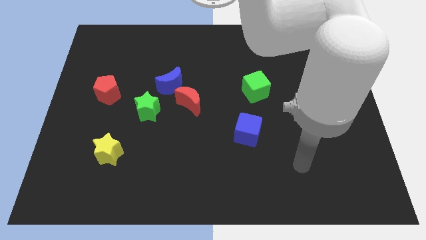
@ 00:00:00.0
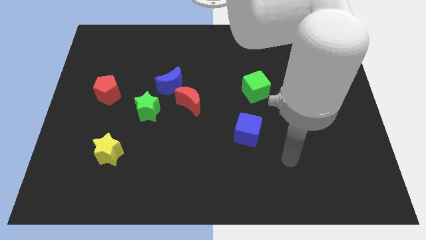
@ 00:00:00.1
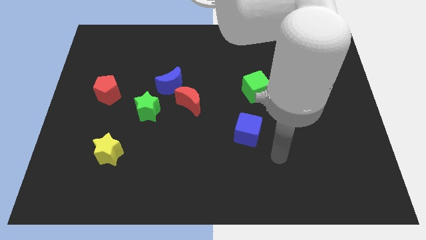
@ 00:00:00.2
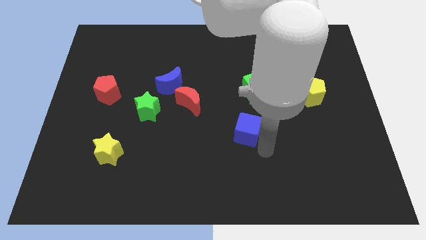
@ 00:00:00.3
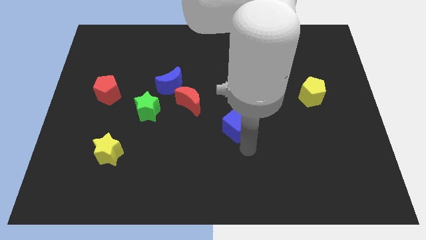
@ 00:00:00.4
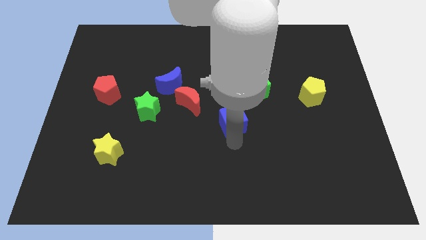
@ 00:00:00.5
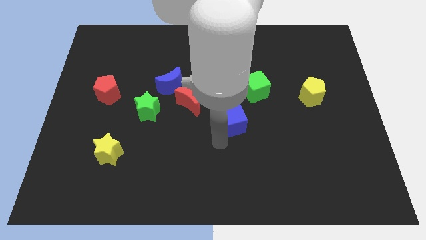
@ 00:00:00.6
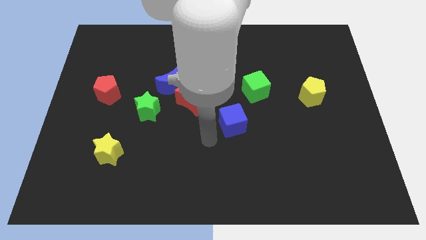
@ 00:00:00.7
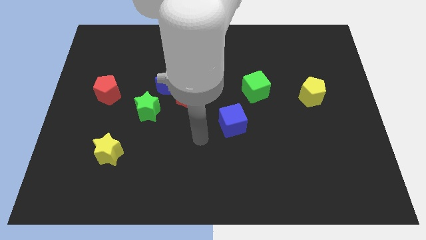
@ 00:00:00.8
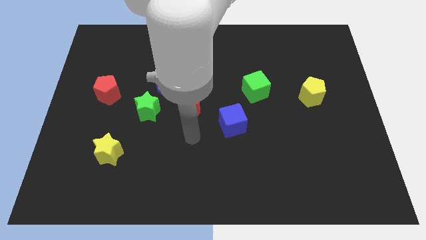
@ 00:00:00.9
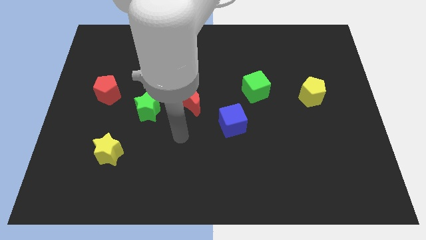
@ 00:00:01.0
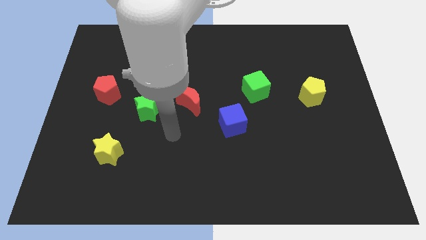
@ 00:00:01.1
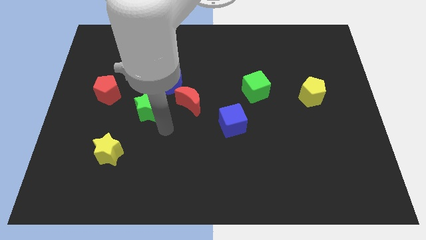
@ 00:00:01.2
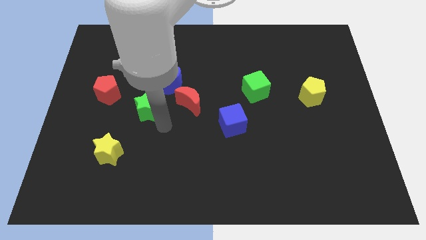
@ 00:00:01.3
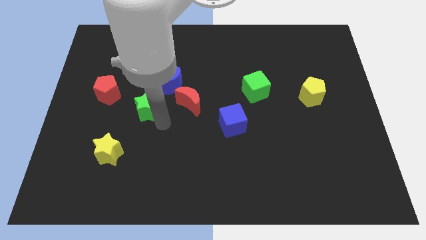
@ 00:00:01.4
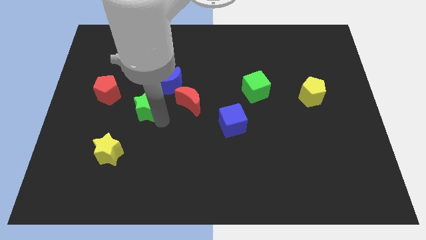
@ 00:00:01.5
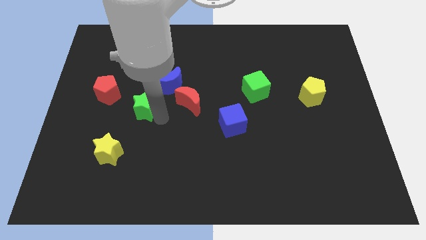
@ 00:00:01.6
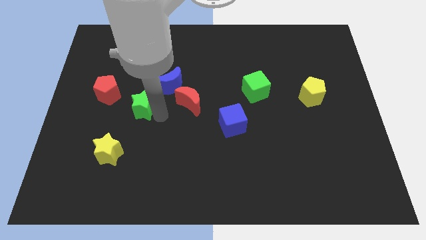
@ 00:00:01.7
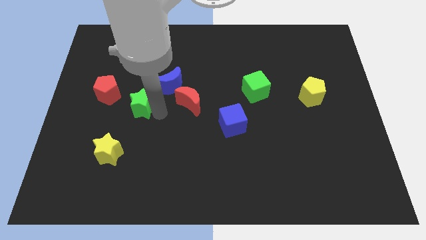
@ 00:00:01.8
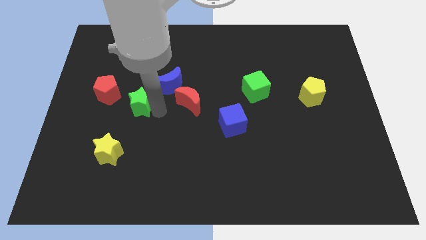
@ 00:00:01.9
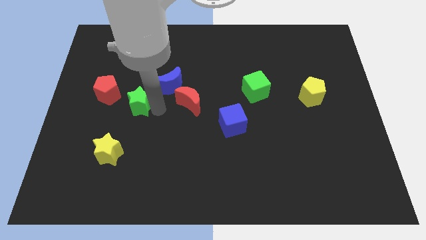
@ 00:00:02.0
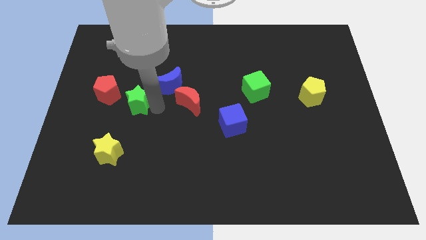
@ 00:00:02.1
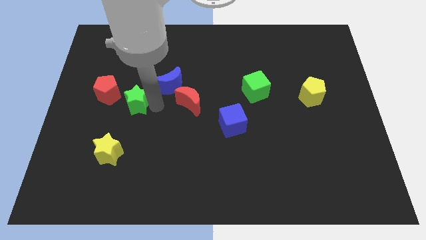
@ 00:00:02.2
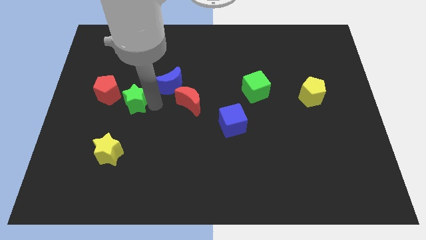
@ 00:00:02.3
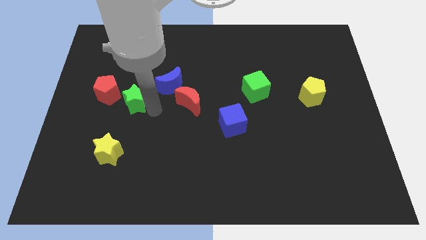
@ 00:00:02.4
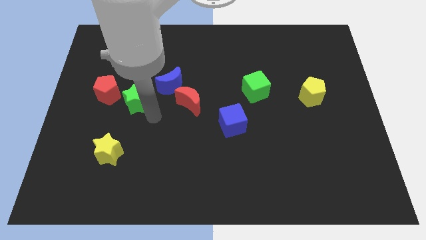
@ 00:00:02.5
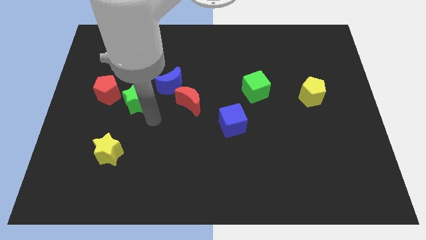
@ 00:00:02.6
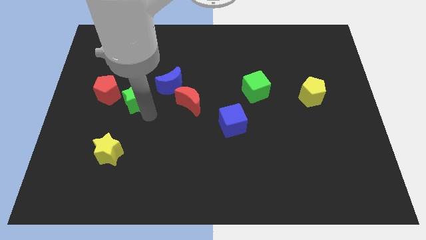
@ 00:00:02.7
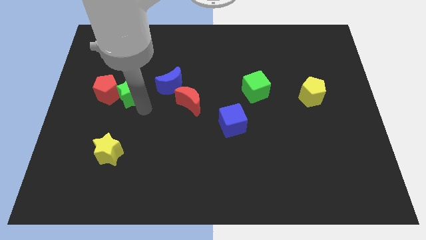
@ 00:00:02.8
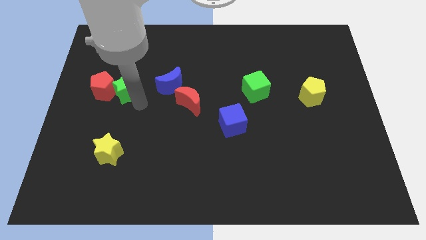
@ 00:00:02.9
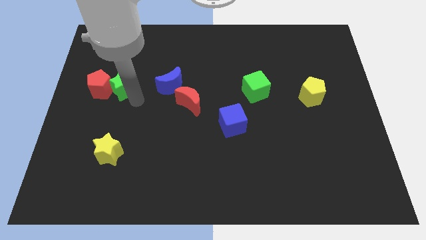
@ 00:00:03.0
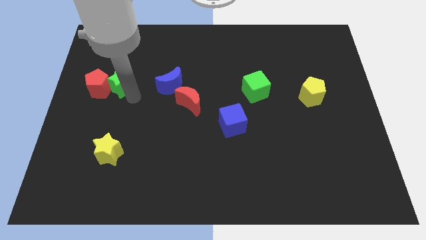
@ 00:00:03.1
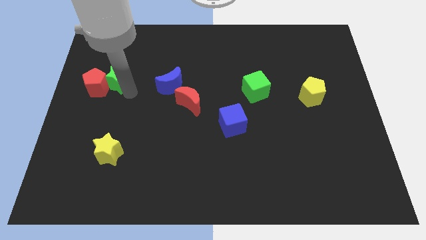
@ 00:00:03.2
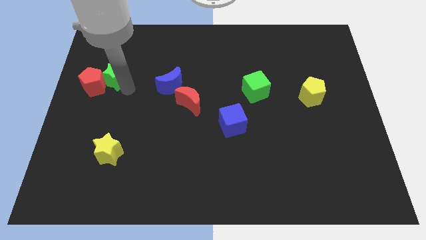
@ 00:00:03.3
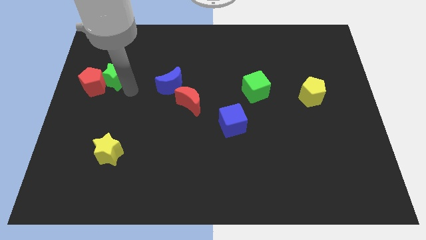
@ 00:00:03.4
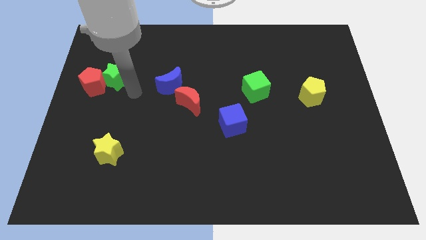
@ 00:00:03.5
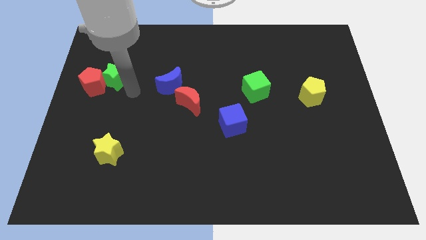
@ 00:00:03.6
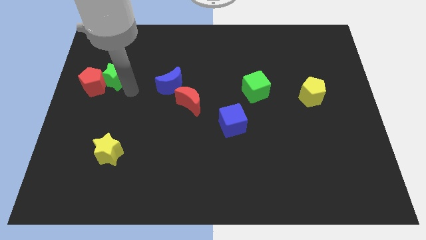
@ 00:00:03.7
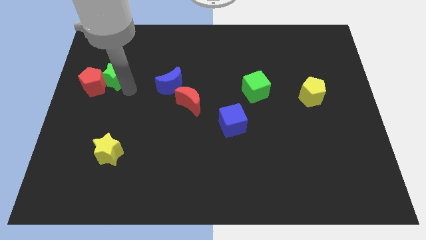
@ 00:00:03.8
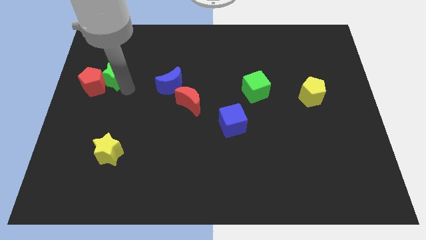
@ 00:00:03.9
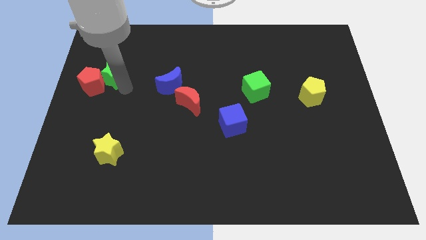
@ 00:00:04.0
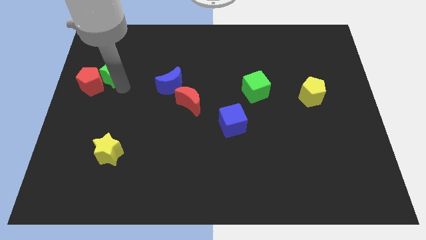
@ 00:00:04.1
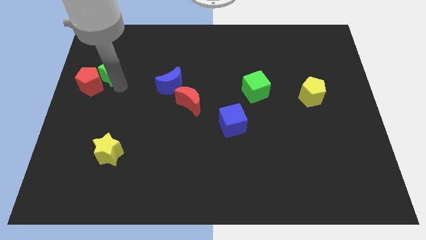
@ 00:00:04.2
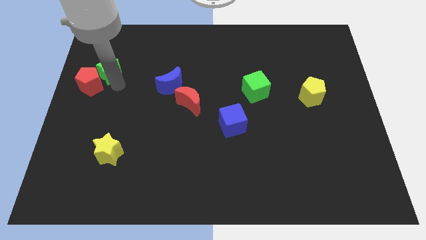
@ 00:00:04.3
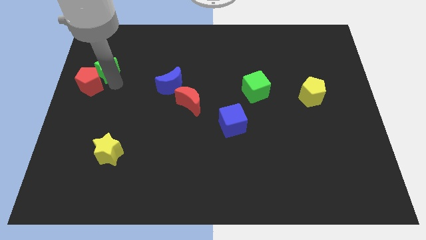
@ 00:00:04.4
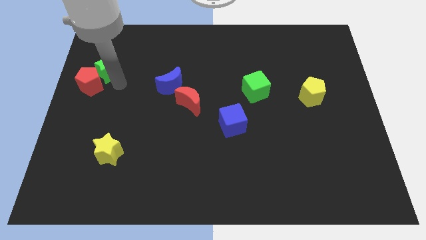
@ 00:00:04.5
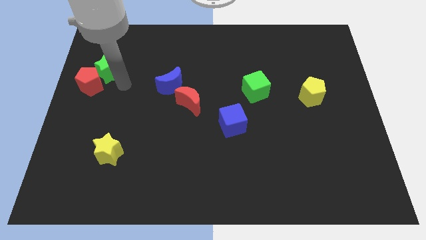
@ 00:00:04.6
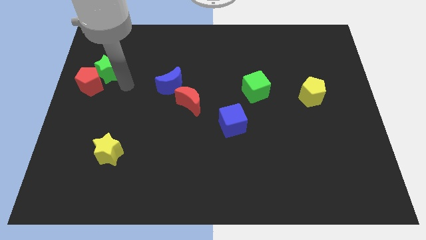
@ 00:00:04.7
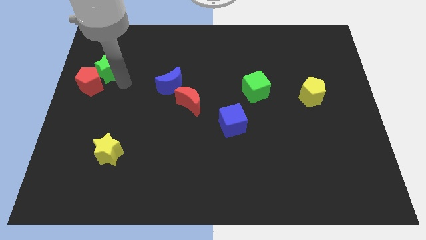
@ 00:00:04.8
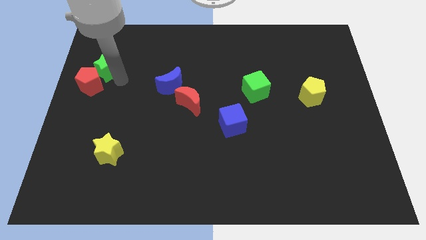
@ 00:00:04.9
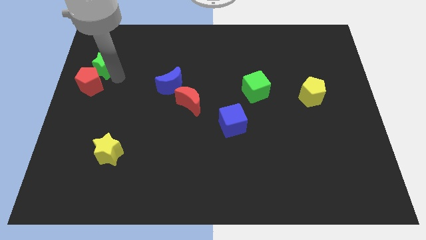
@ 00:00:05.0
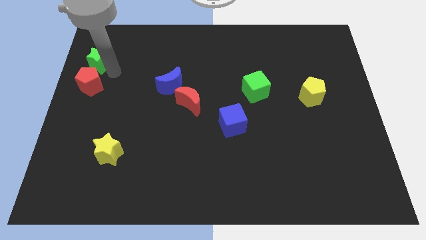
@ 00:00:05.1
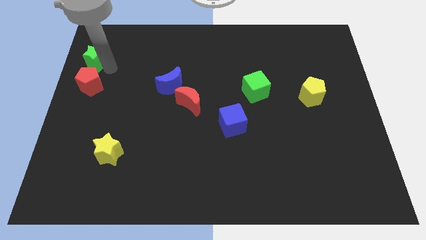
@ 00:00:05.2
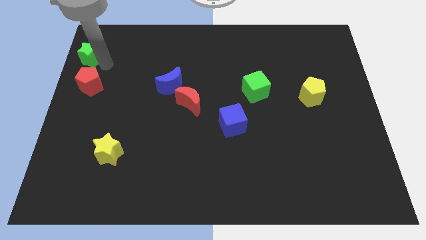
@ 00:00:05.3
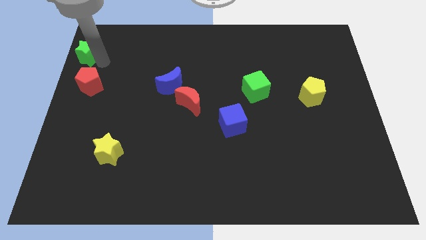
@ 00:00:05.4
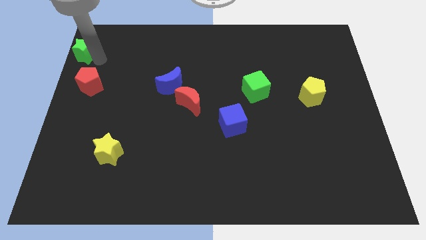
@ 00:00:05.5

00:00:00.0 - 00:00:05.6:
push the green star to the top left

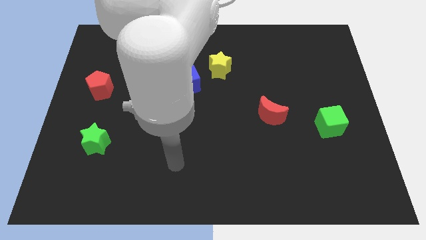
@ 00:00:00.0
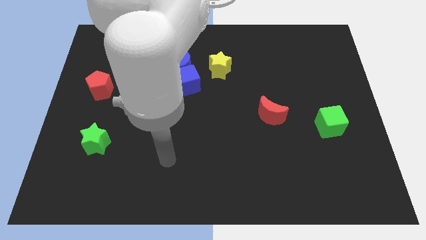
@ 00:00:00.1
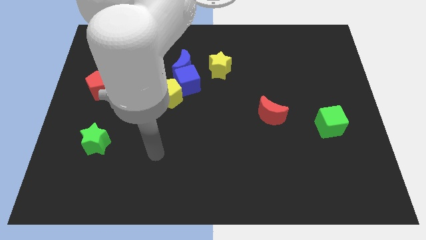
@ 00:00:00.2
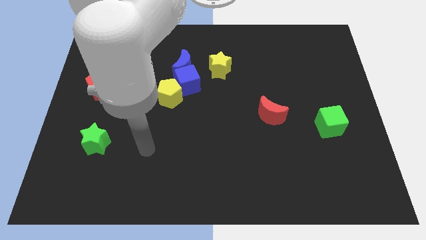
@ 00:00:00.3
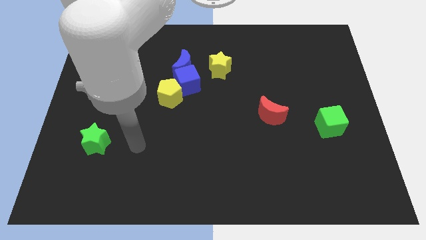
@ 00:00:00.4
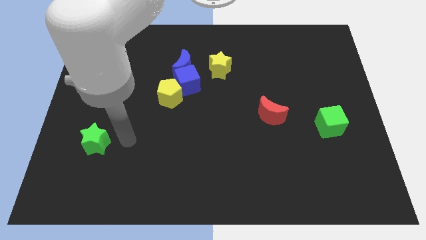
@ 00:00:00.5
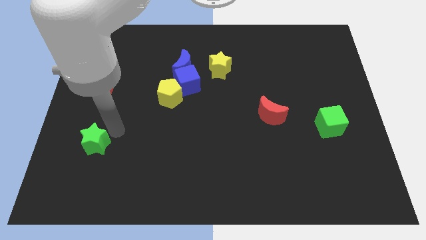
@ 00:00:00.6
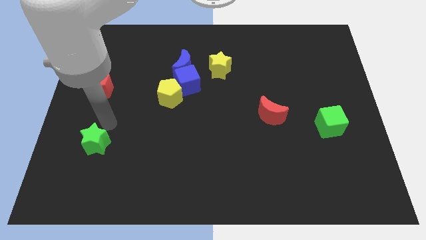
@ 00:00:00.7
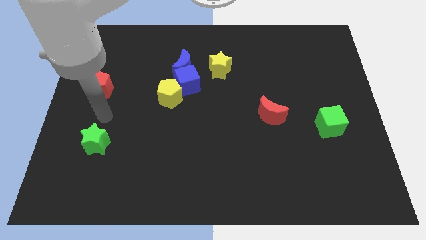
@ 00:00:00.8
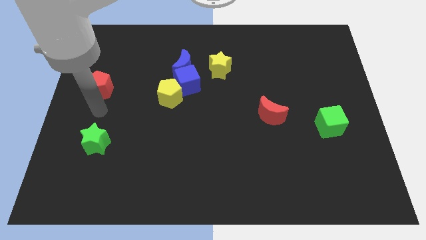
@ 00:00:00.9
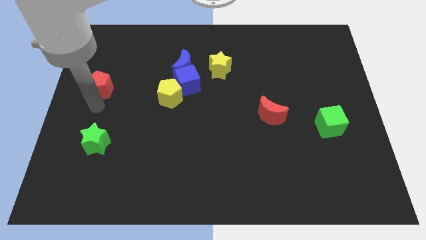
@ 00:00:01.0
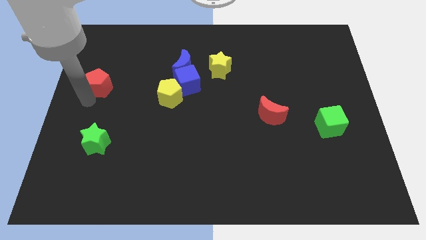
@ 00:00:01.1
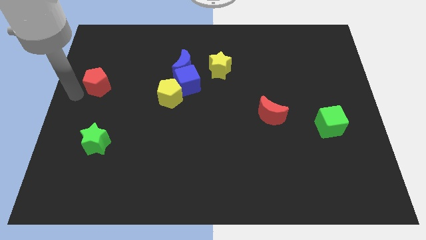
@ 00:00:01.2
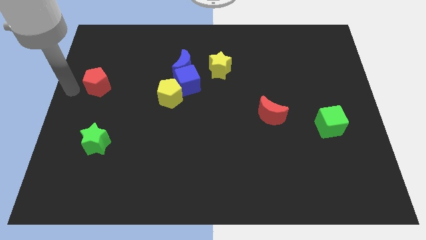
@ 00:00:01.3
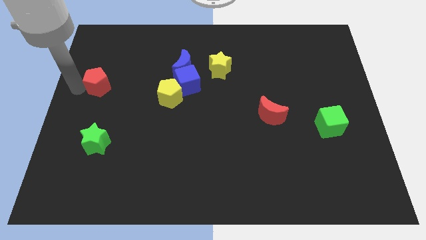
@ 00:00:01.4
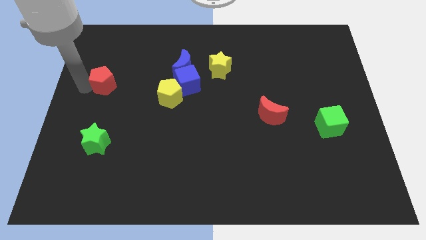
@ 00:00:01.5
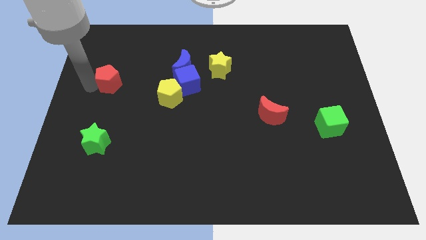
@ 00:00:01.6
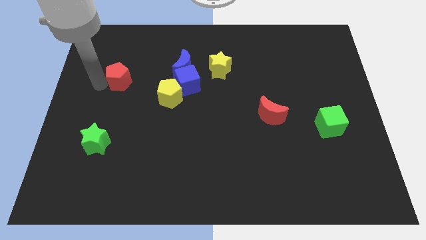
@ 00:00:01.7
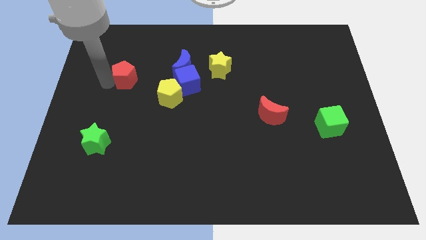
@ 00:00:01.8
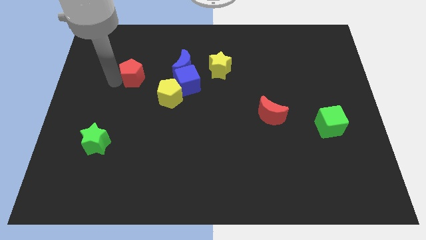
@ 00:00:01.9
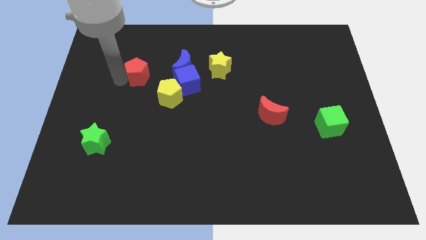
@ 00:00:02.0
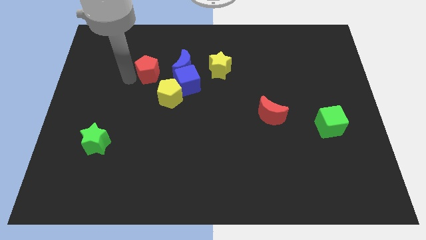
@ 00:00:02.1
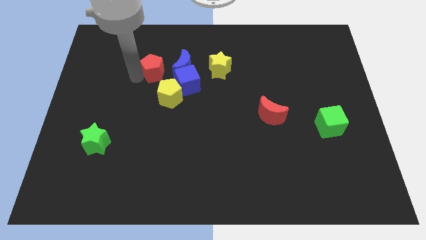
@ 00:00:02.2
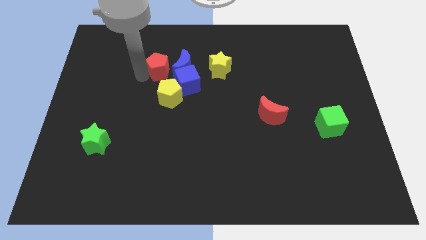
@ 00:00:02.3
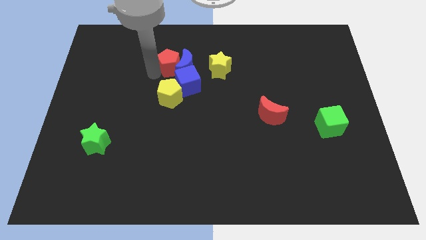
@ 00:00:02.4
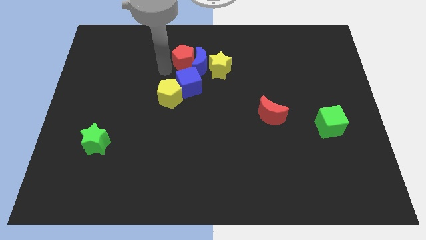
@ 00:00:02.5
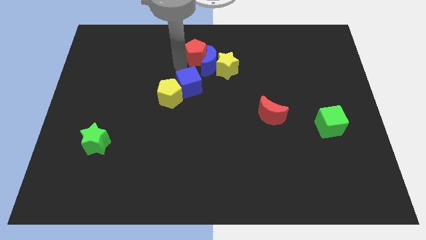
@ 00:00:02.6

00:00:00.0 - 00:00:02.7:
put the red pentagon to the top side
